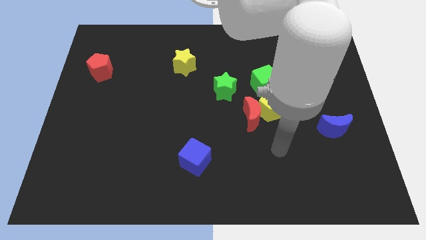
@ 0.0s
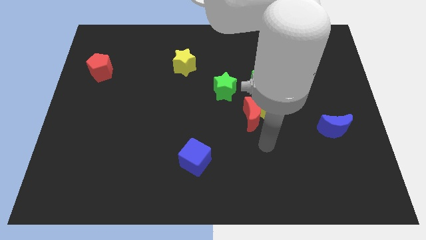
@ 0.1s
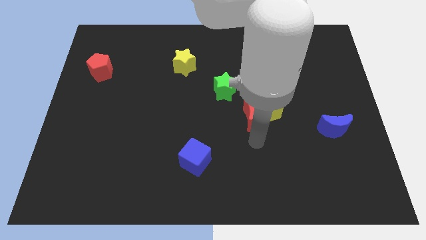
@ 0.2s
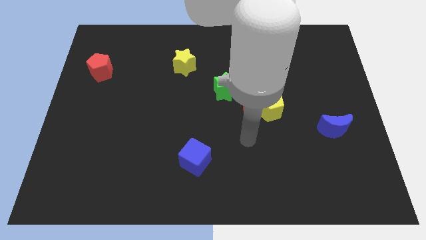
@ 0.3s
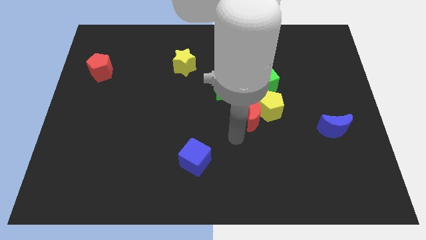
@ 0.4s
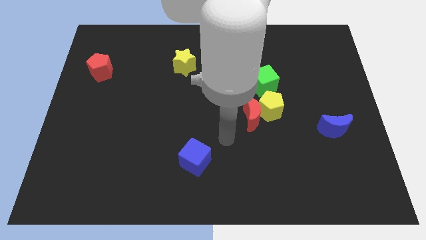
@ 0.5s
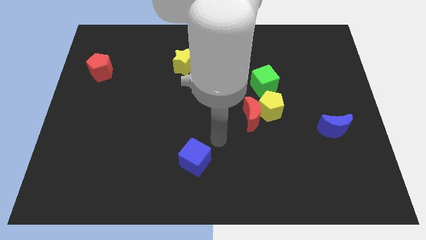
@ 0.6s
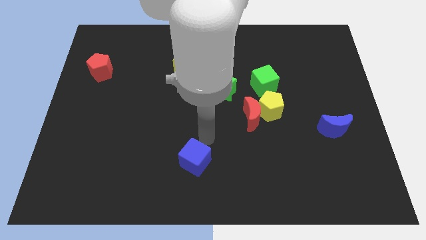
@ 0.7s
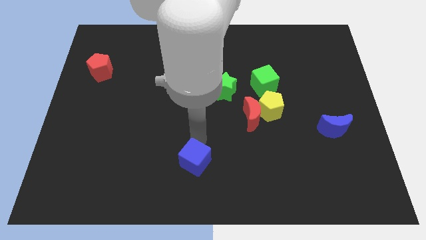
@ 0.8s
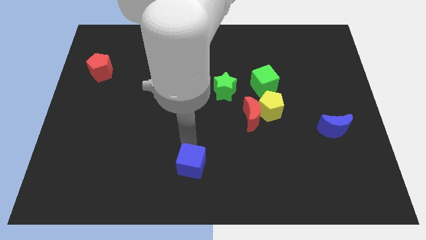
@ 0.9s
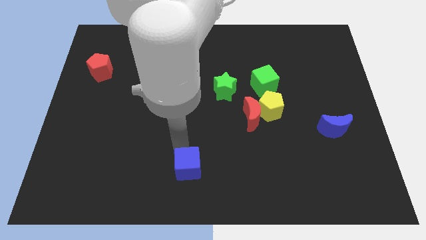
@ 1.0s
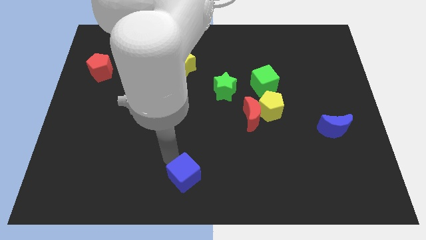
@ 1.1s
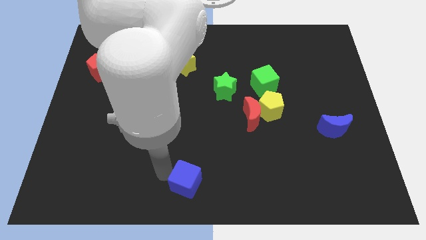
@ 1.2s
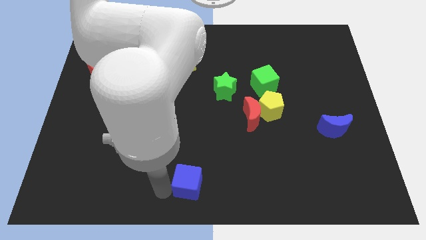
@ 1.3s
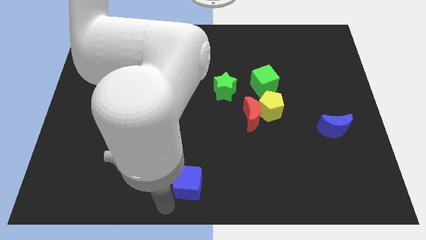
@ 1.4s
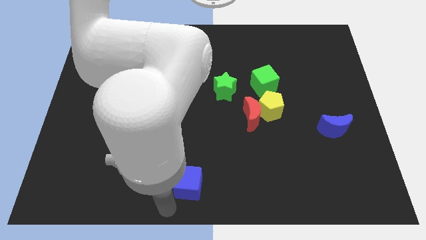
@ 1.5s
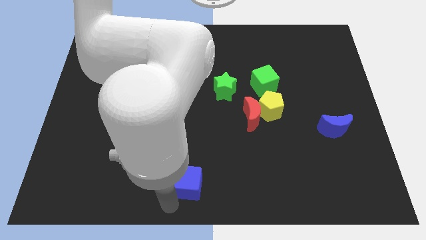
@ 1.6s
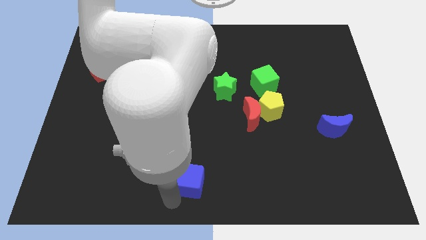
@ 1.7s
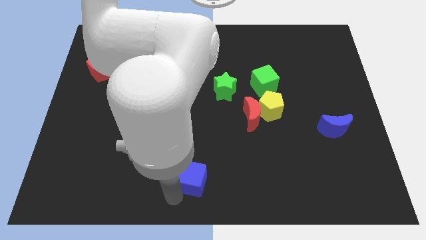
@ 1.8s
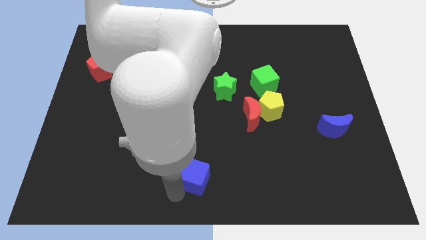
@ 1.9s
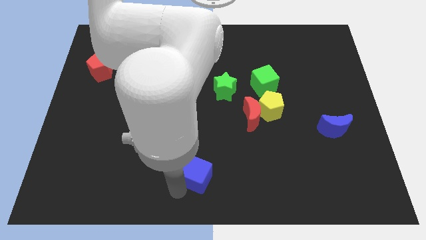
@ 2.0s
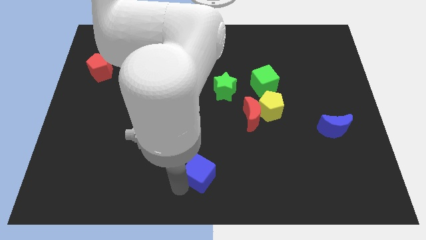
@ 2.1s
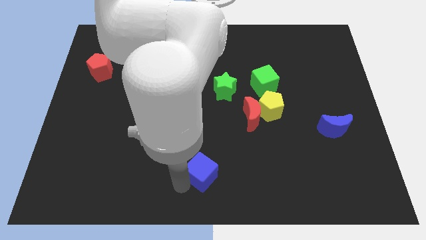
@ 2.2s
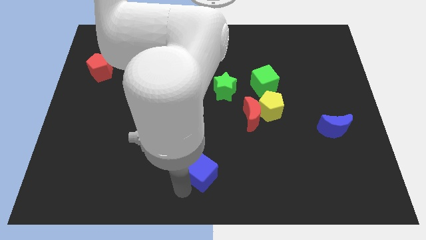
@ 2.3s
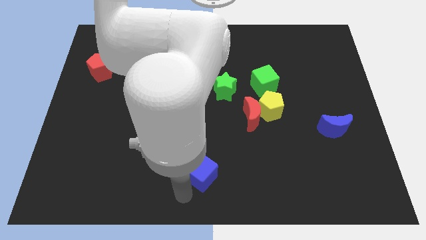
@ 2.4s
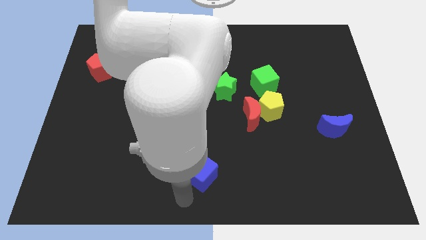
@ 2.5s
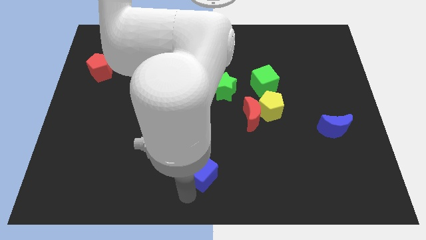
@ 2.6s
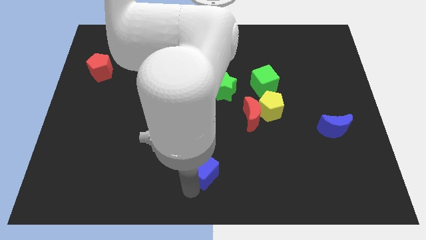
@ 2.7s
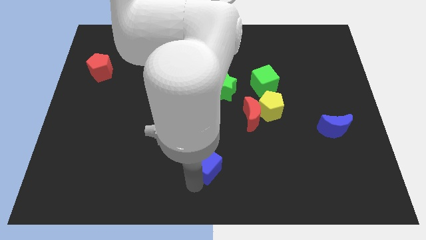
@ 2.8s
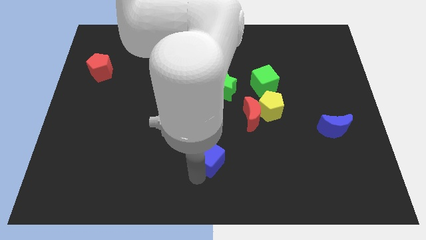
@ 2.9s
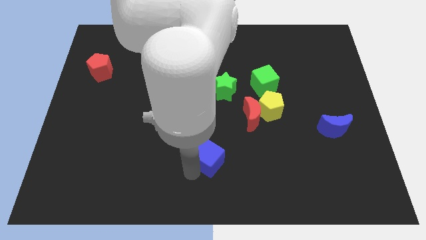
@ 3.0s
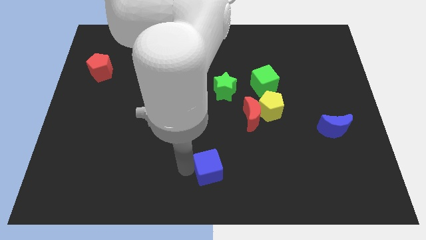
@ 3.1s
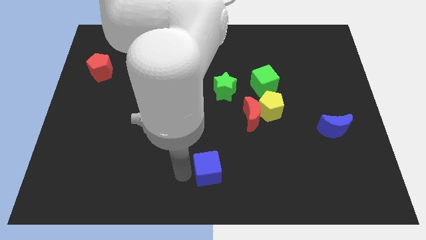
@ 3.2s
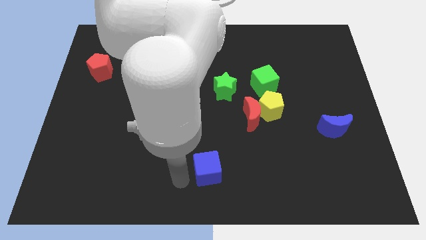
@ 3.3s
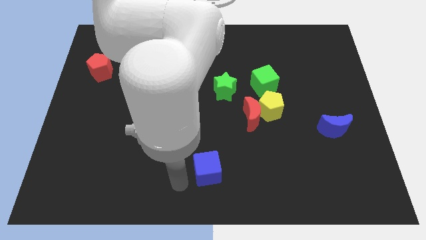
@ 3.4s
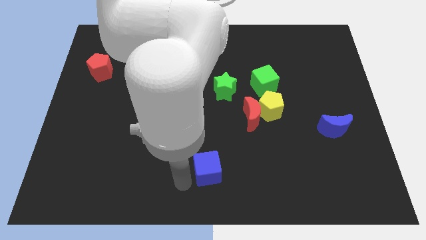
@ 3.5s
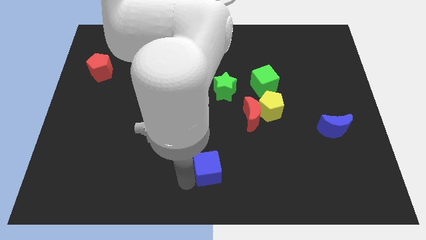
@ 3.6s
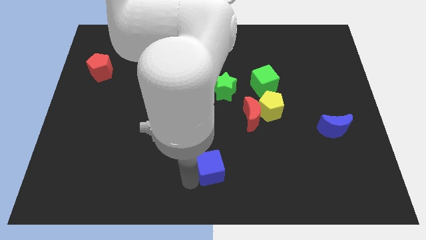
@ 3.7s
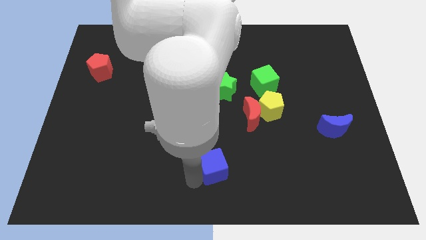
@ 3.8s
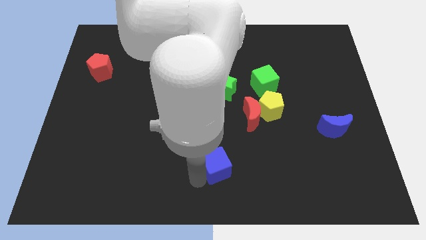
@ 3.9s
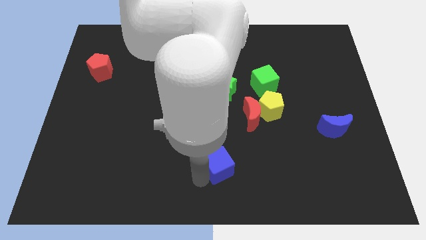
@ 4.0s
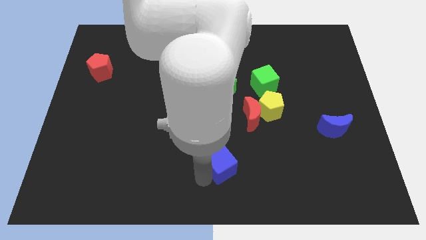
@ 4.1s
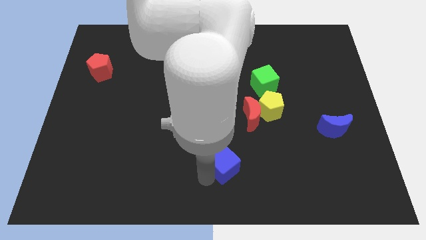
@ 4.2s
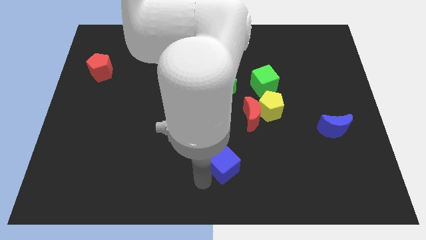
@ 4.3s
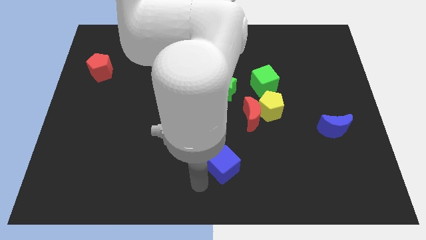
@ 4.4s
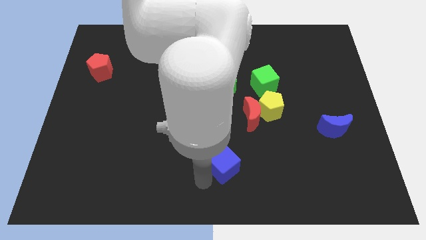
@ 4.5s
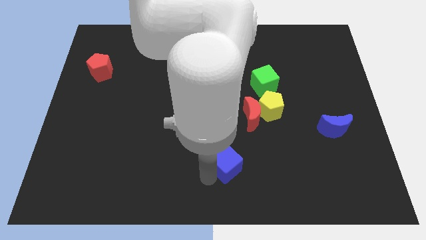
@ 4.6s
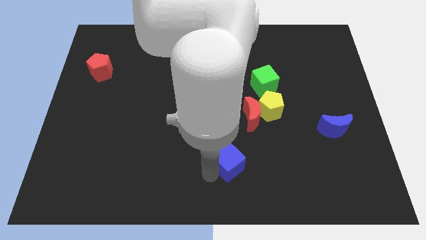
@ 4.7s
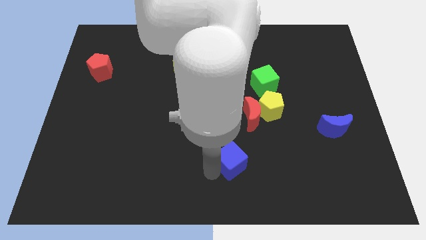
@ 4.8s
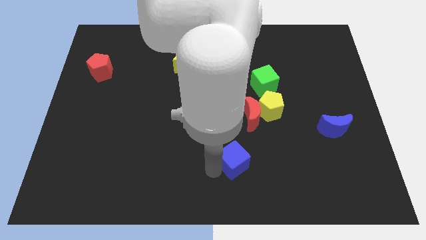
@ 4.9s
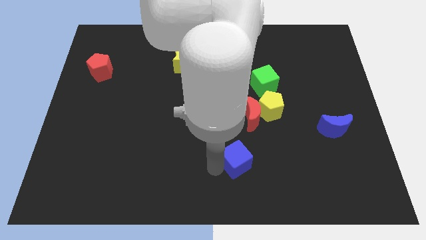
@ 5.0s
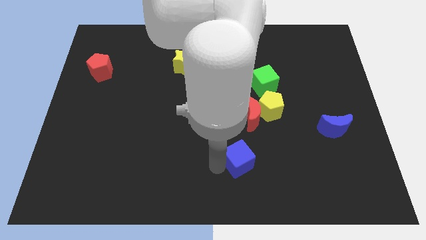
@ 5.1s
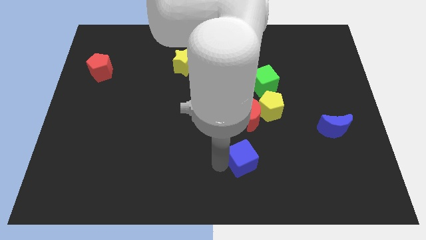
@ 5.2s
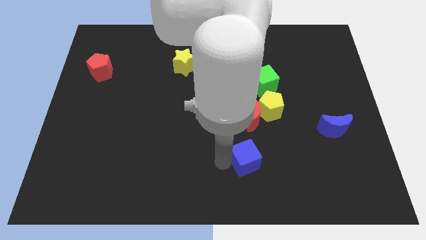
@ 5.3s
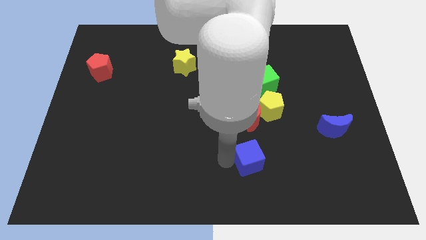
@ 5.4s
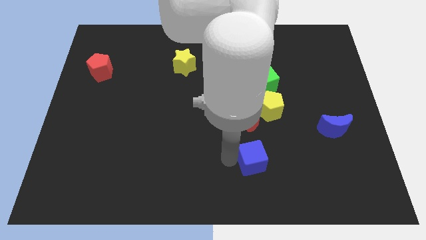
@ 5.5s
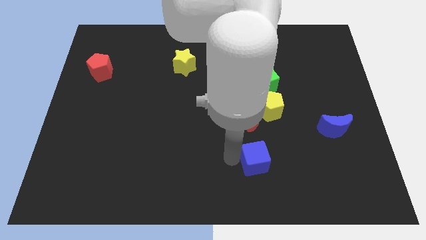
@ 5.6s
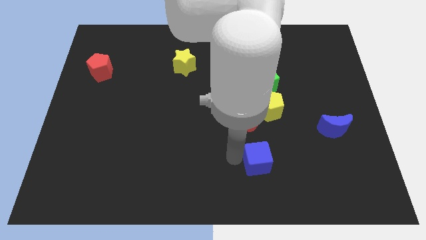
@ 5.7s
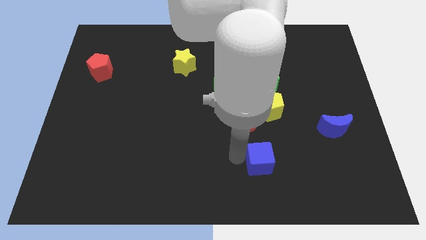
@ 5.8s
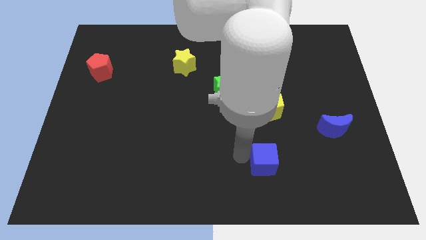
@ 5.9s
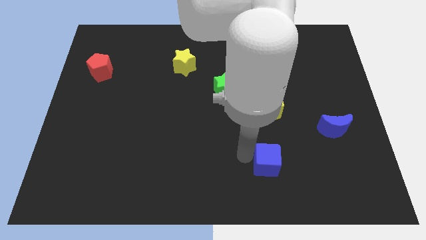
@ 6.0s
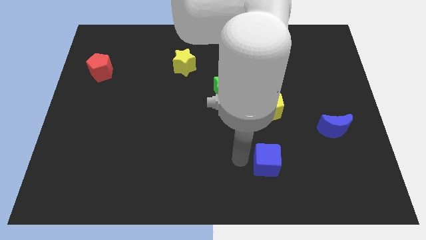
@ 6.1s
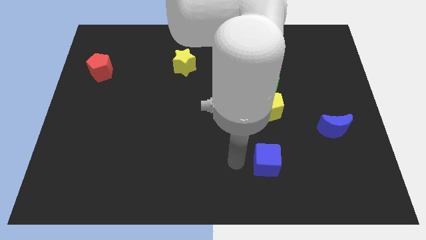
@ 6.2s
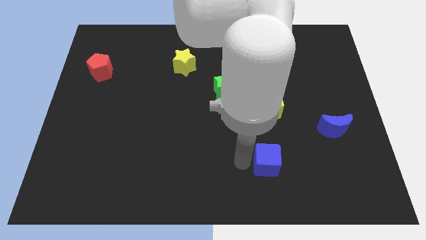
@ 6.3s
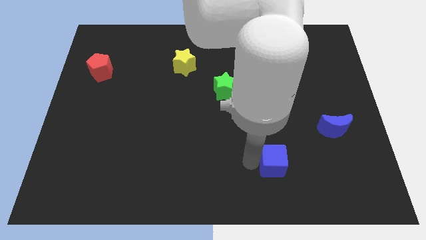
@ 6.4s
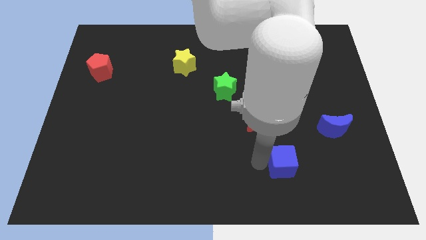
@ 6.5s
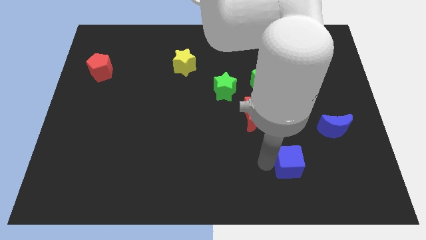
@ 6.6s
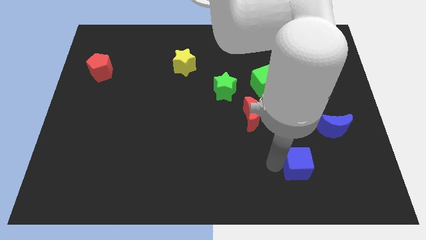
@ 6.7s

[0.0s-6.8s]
move the blue cube to the right

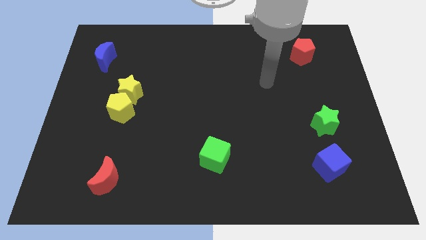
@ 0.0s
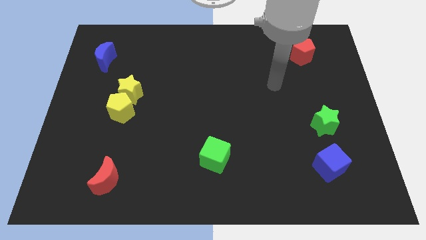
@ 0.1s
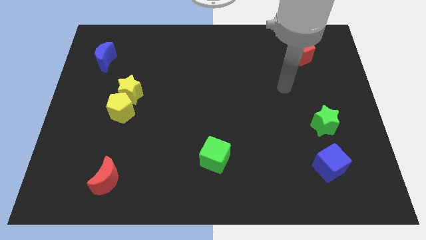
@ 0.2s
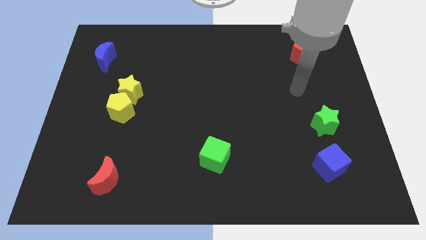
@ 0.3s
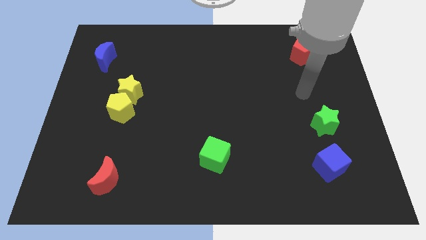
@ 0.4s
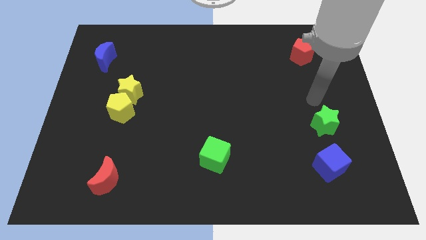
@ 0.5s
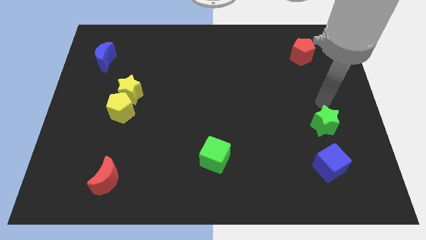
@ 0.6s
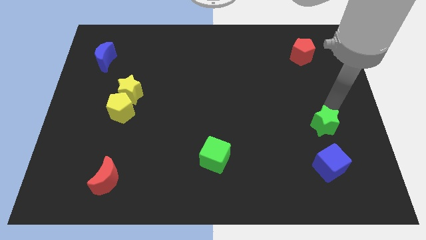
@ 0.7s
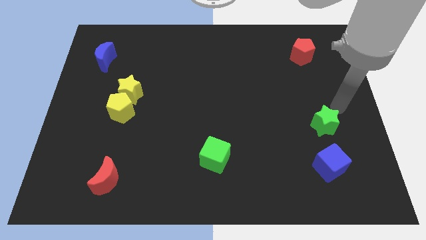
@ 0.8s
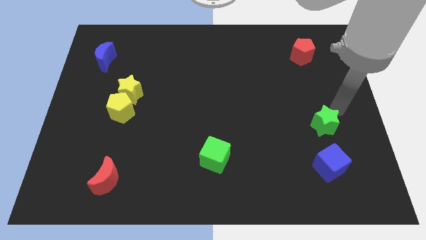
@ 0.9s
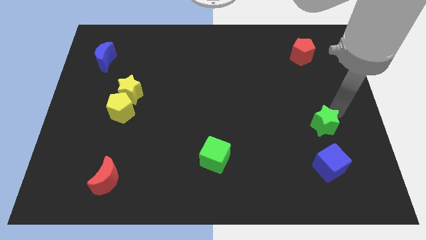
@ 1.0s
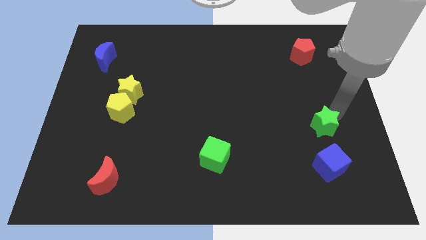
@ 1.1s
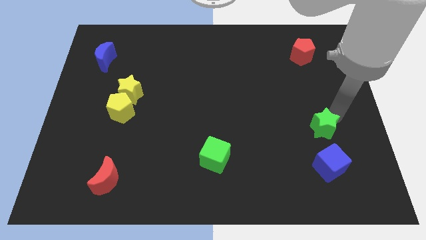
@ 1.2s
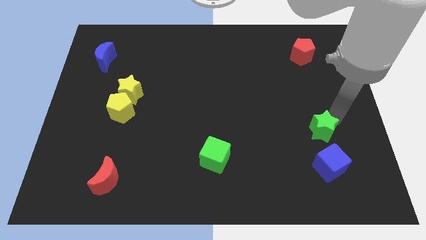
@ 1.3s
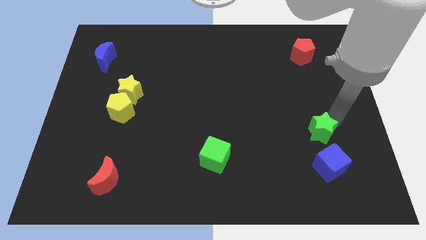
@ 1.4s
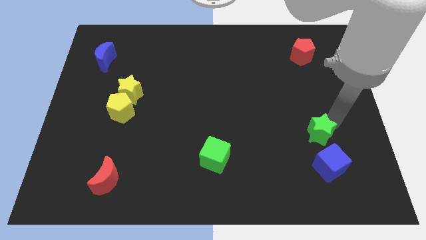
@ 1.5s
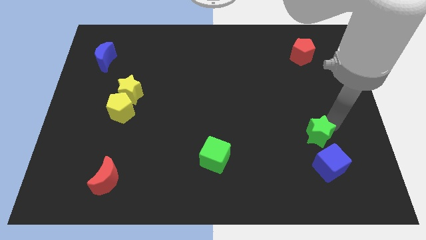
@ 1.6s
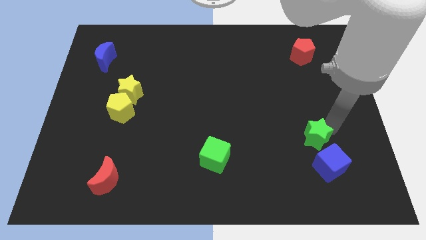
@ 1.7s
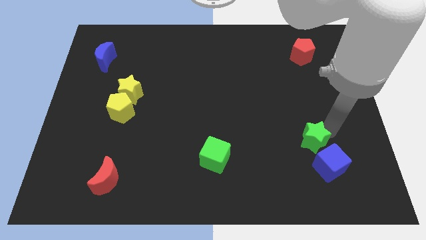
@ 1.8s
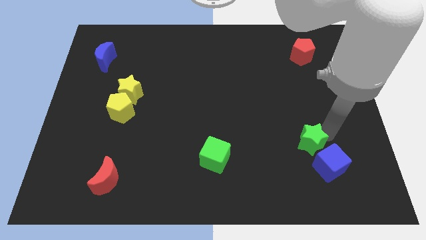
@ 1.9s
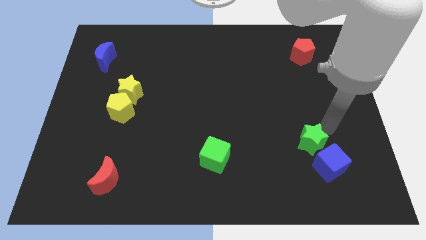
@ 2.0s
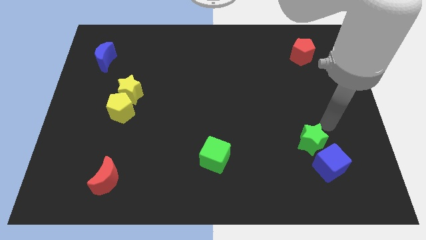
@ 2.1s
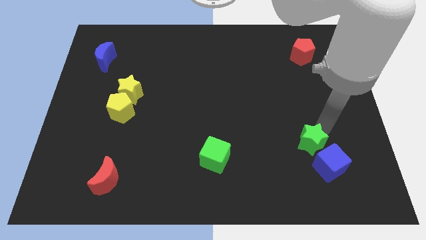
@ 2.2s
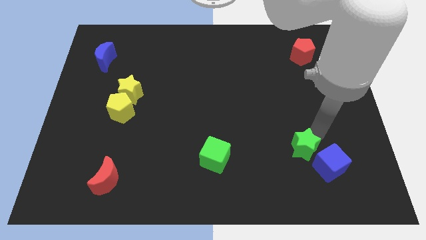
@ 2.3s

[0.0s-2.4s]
slightly move the green star downwards and to the left diagonally
